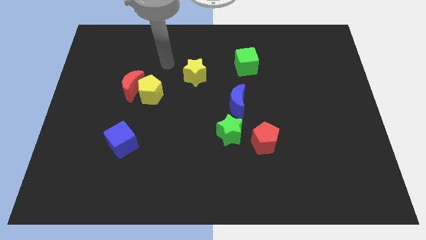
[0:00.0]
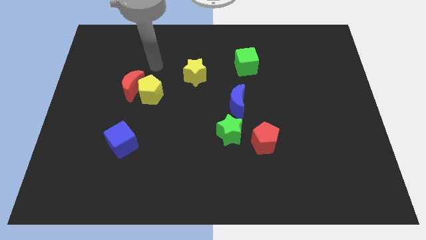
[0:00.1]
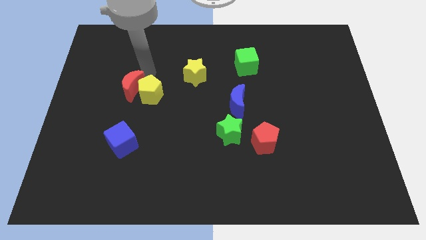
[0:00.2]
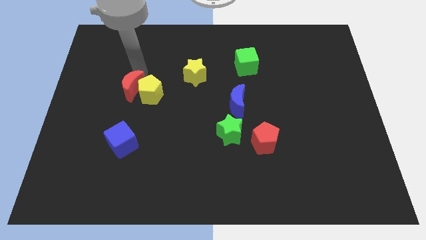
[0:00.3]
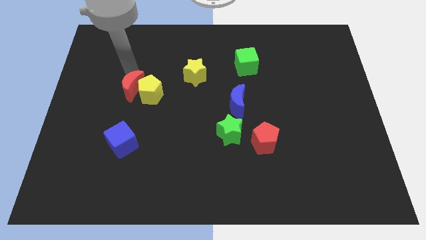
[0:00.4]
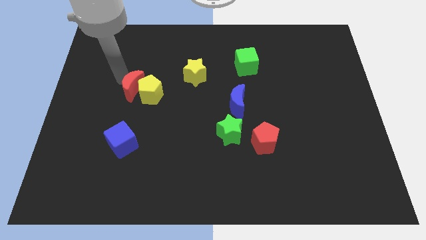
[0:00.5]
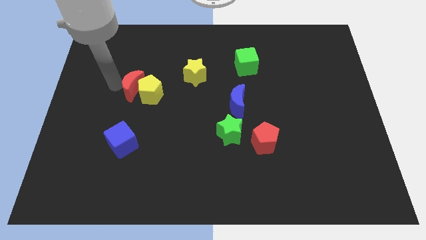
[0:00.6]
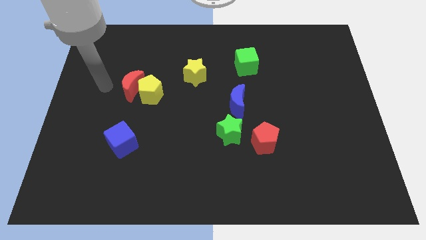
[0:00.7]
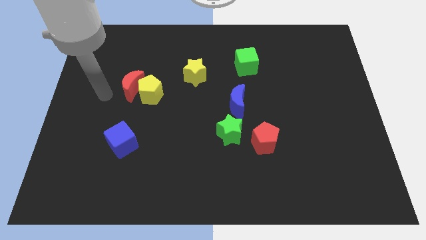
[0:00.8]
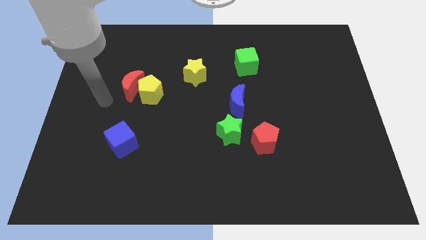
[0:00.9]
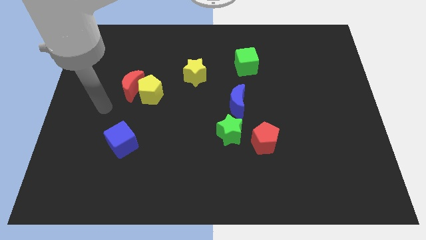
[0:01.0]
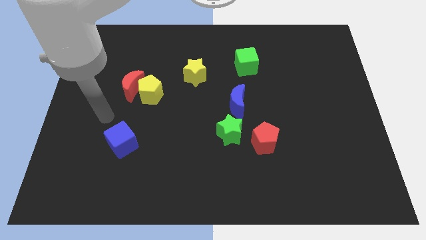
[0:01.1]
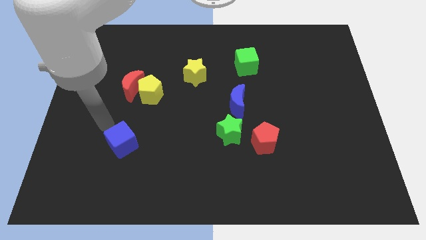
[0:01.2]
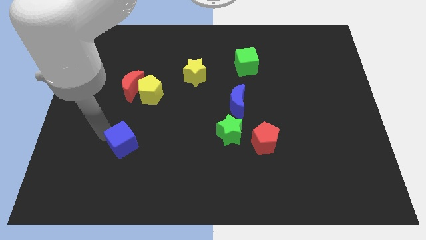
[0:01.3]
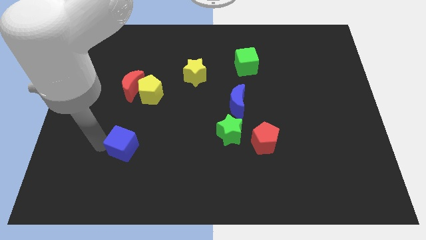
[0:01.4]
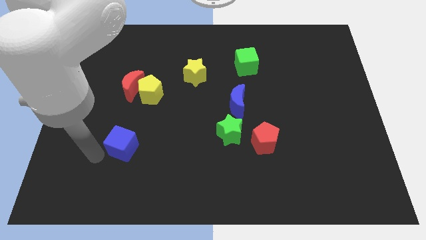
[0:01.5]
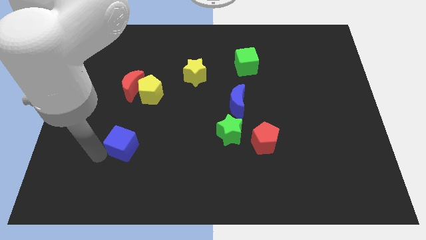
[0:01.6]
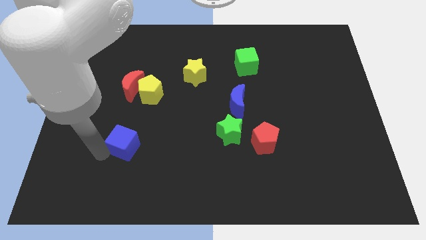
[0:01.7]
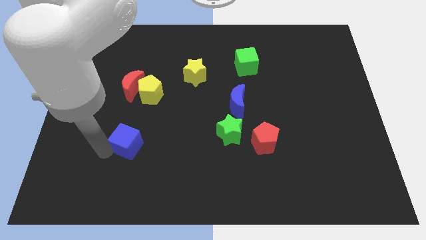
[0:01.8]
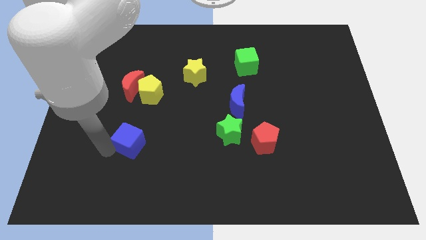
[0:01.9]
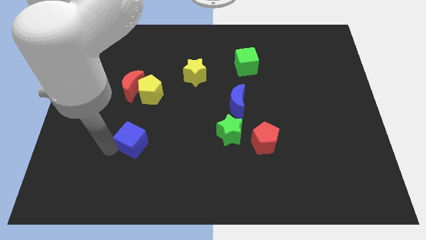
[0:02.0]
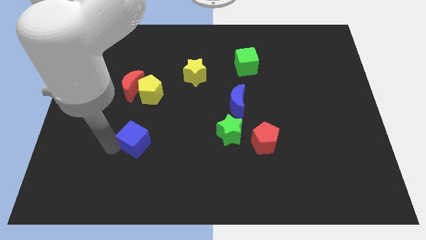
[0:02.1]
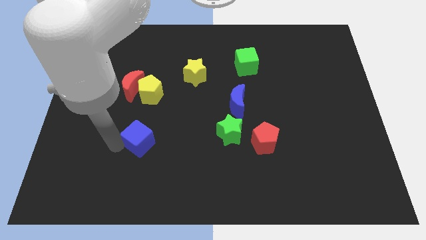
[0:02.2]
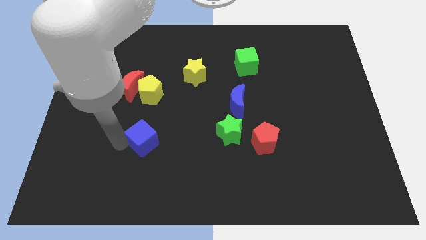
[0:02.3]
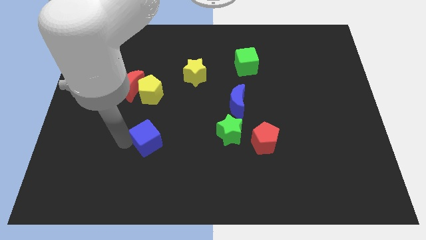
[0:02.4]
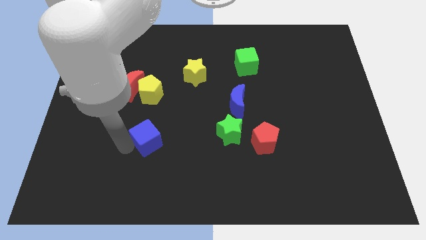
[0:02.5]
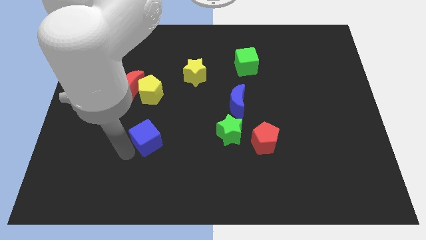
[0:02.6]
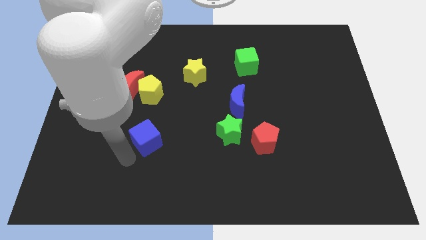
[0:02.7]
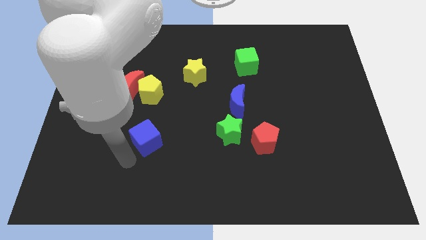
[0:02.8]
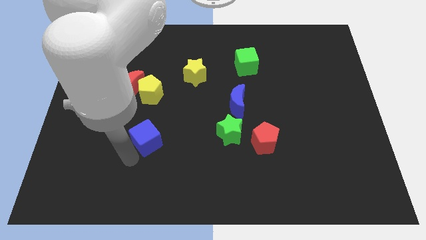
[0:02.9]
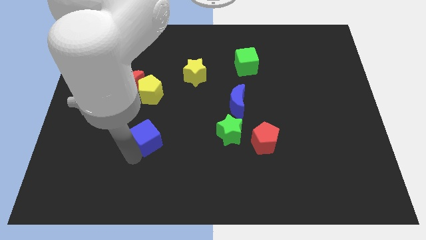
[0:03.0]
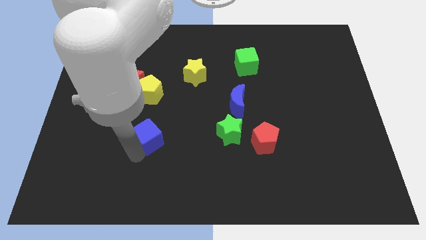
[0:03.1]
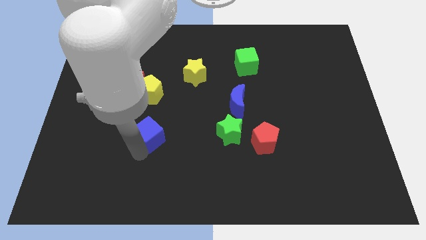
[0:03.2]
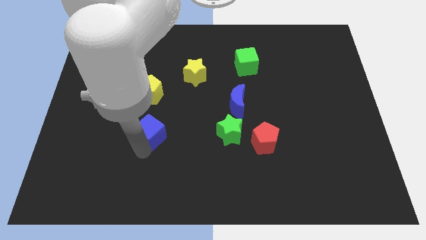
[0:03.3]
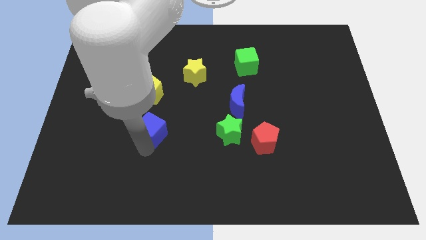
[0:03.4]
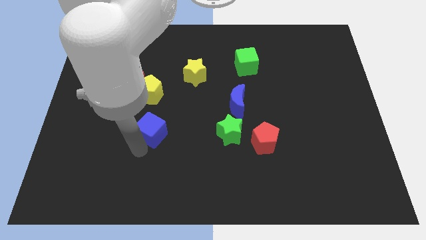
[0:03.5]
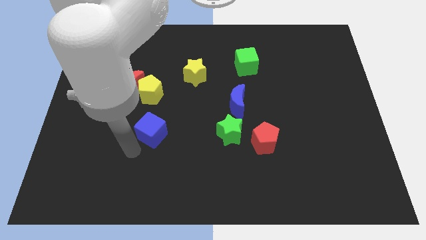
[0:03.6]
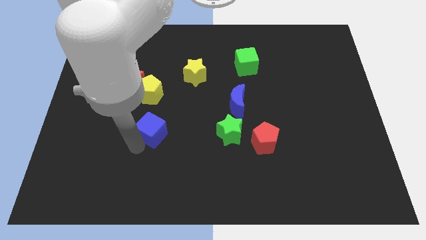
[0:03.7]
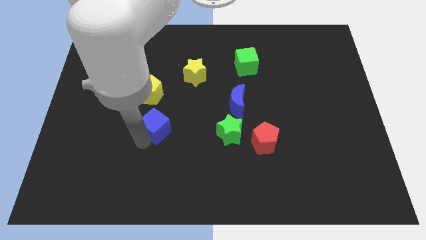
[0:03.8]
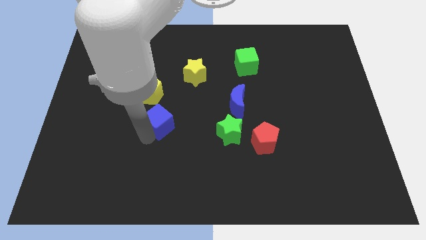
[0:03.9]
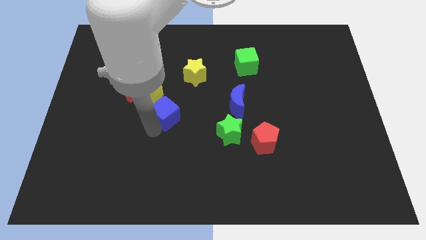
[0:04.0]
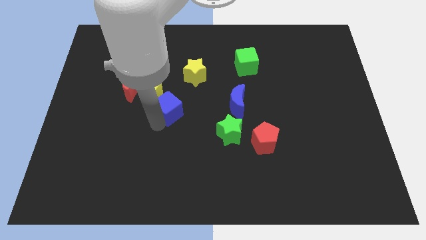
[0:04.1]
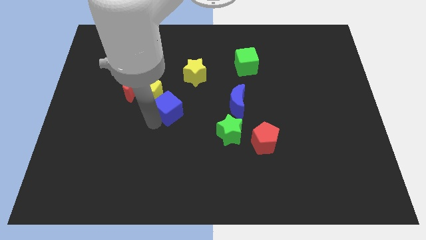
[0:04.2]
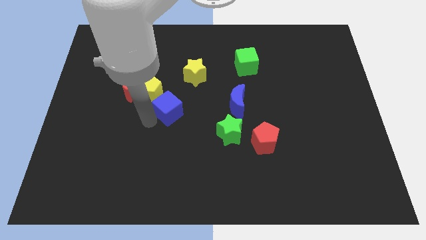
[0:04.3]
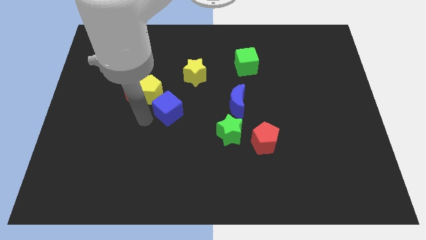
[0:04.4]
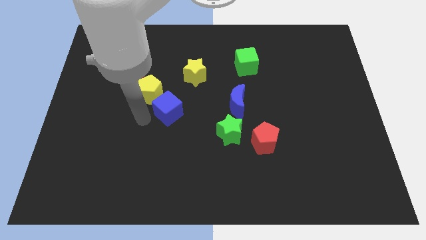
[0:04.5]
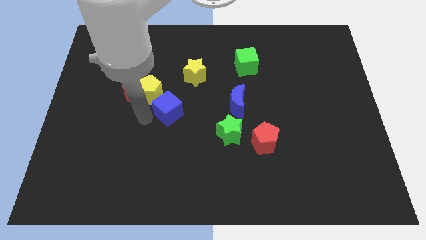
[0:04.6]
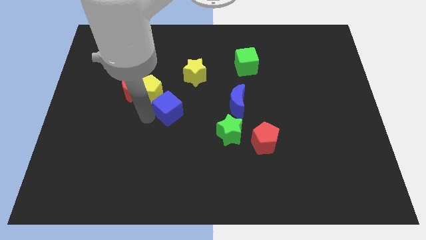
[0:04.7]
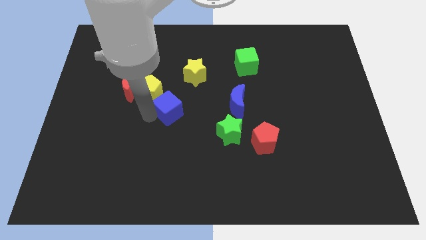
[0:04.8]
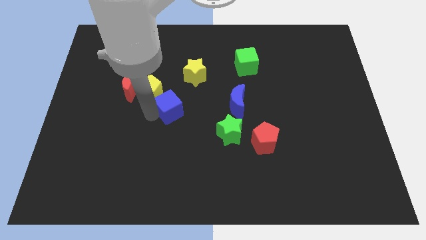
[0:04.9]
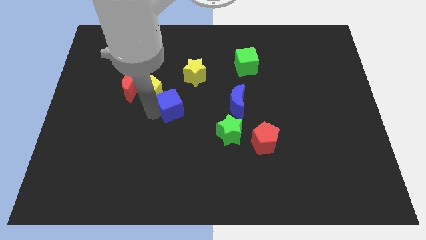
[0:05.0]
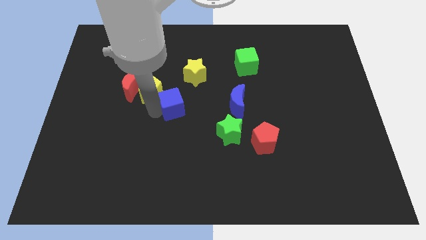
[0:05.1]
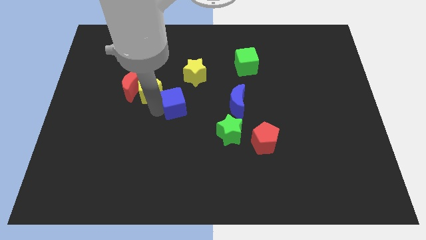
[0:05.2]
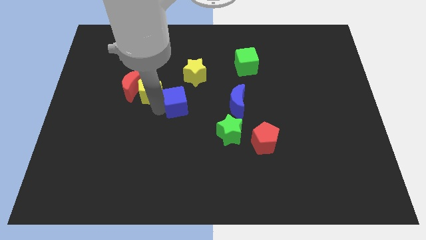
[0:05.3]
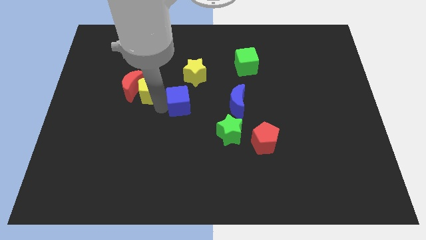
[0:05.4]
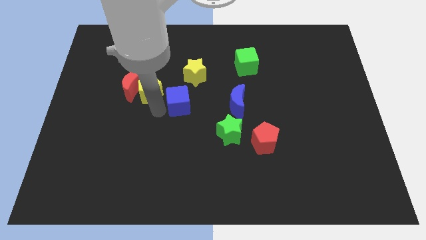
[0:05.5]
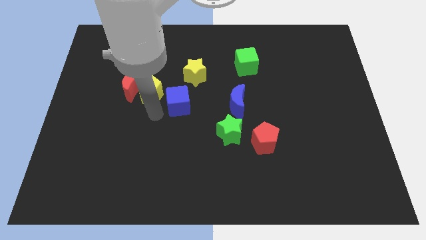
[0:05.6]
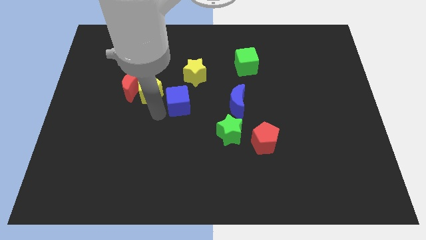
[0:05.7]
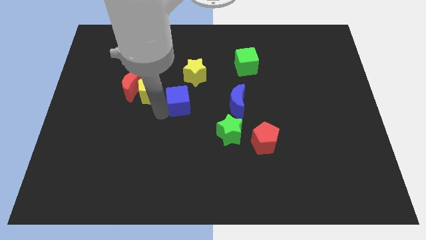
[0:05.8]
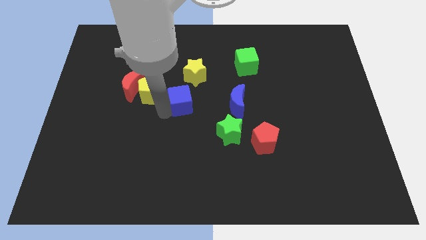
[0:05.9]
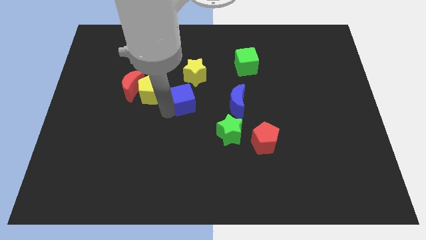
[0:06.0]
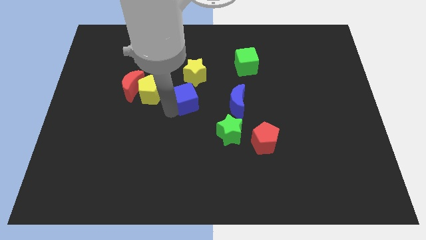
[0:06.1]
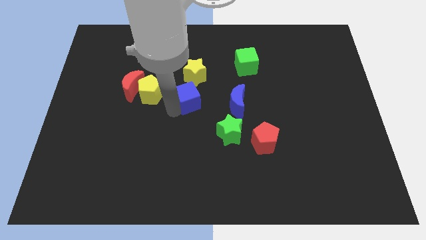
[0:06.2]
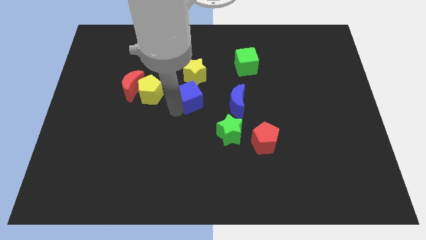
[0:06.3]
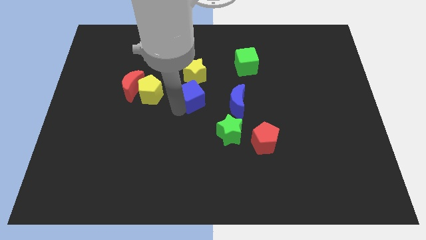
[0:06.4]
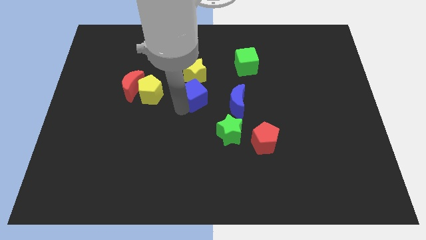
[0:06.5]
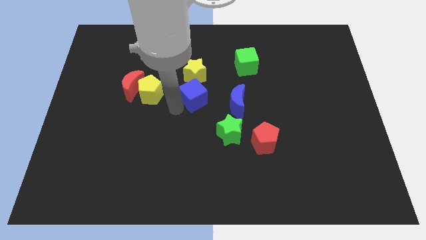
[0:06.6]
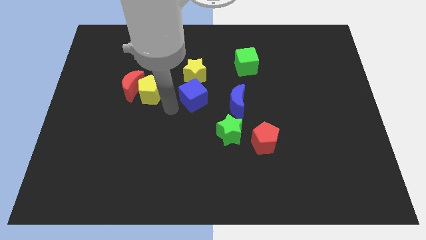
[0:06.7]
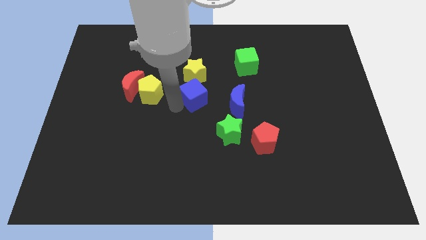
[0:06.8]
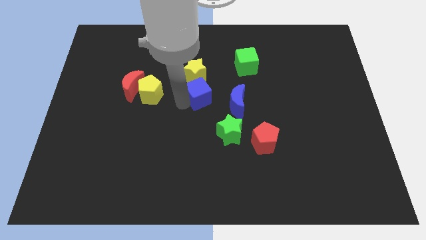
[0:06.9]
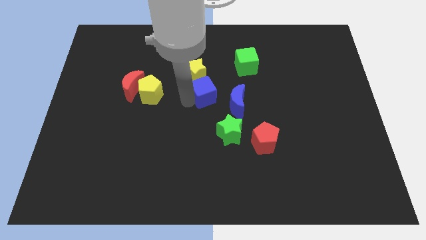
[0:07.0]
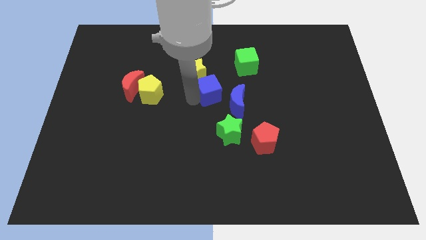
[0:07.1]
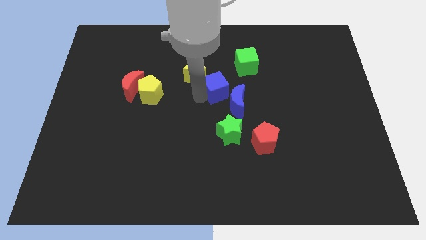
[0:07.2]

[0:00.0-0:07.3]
slide the blue cube to the bottom left of the green cube
